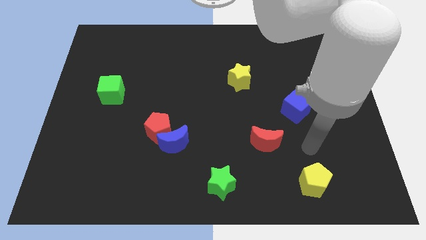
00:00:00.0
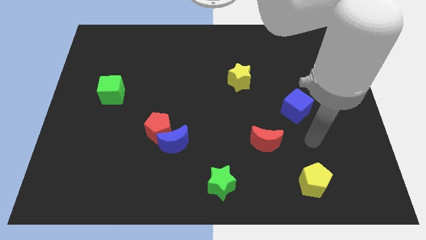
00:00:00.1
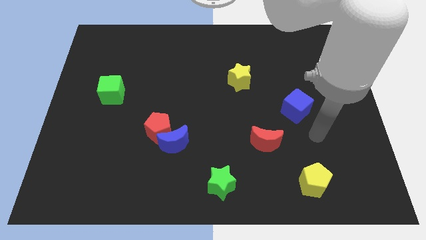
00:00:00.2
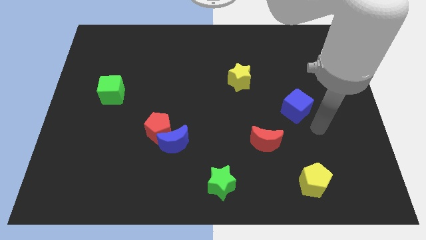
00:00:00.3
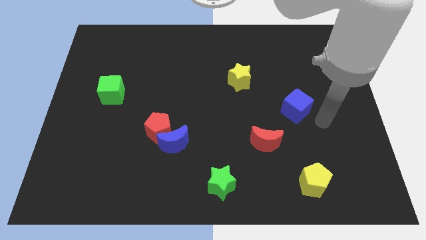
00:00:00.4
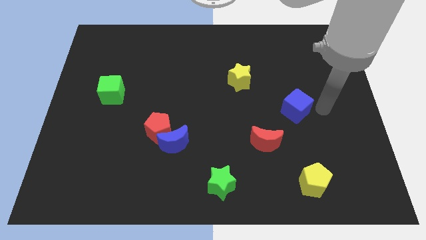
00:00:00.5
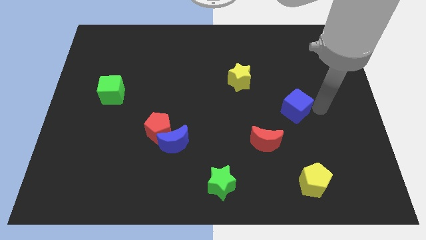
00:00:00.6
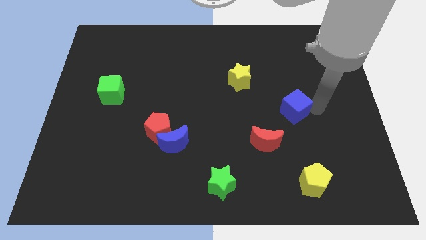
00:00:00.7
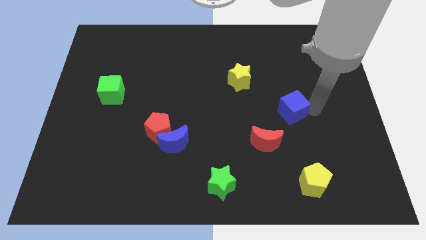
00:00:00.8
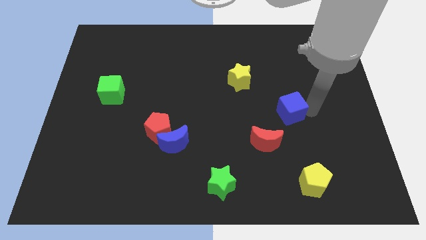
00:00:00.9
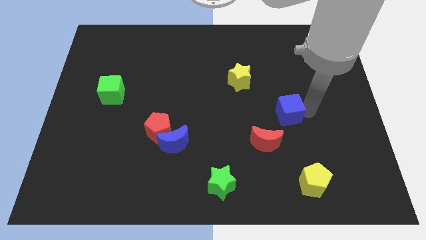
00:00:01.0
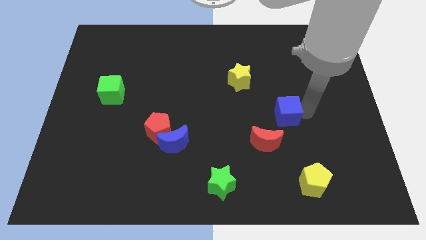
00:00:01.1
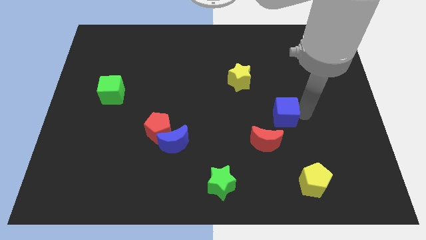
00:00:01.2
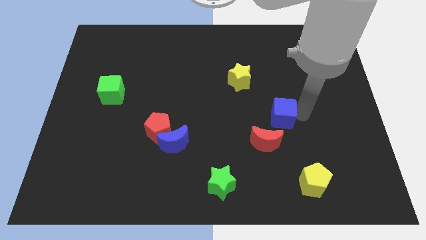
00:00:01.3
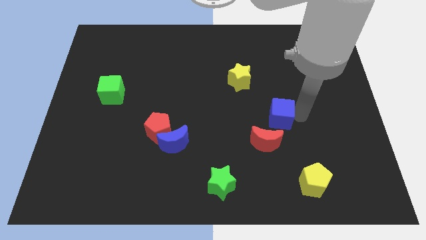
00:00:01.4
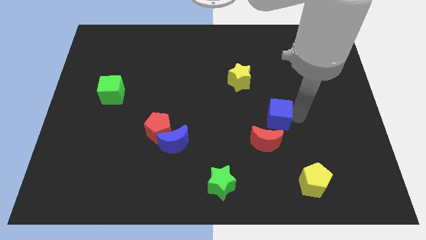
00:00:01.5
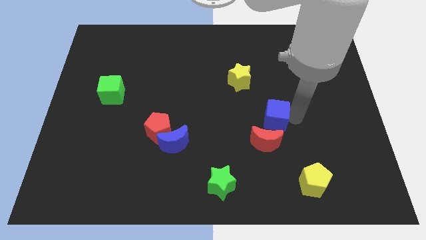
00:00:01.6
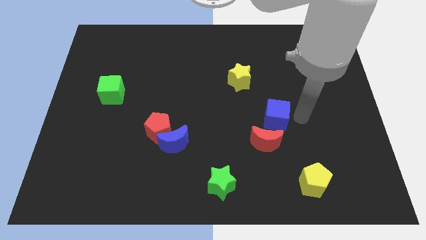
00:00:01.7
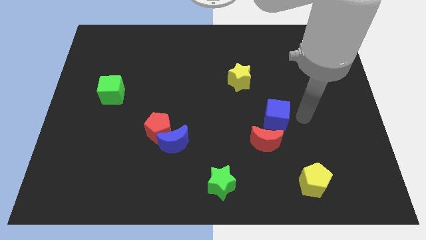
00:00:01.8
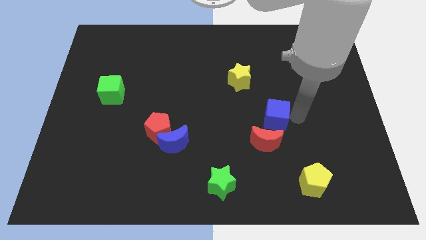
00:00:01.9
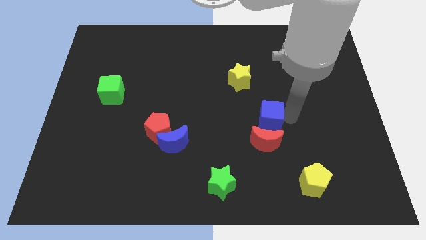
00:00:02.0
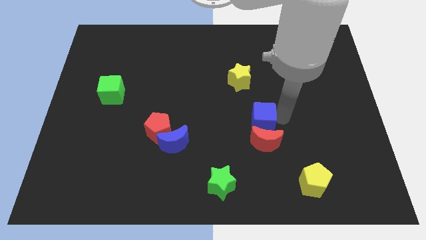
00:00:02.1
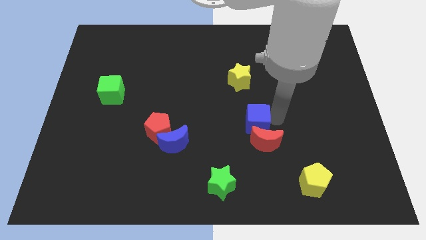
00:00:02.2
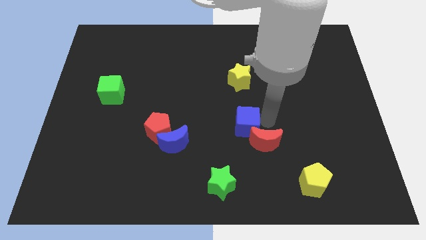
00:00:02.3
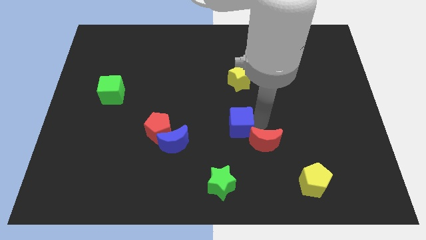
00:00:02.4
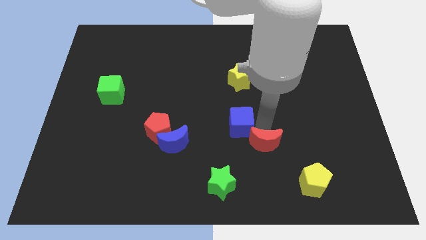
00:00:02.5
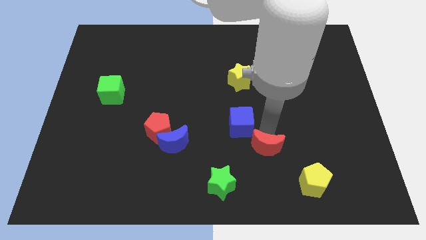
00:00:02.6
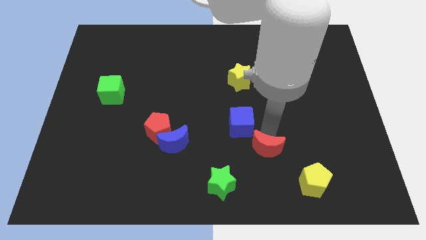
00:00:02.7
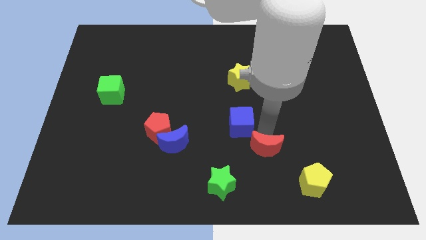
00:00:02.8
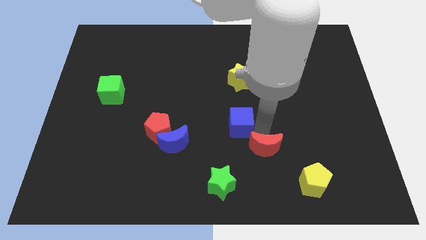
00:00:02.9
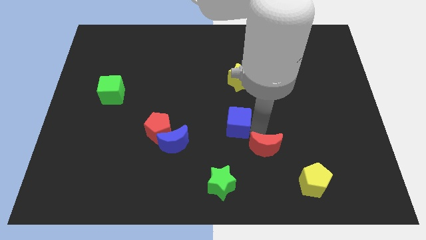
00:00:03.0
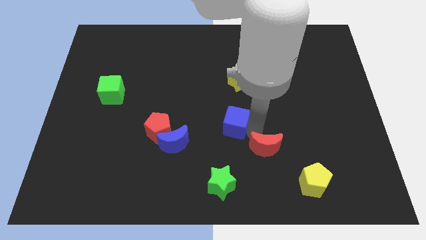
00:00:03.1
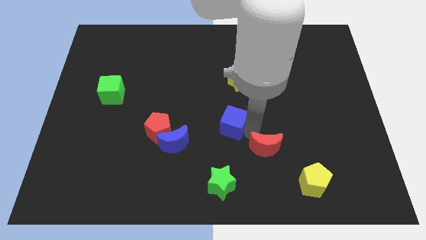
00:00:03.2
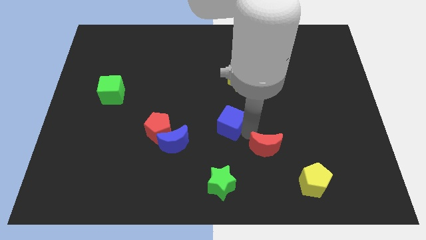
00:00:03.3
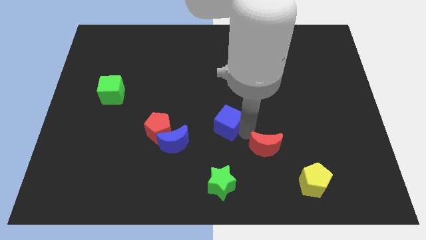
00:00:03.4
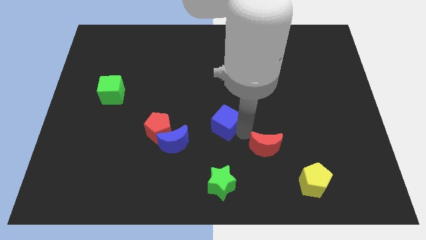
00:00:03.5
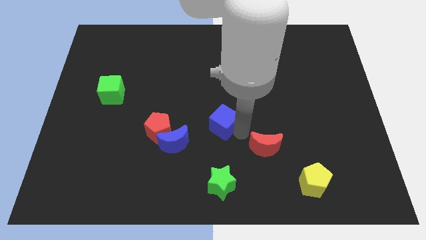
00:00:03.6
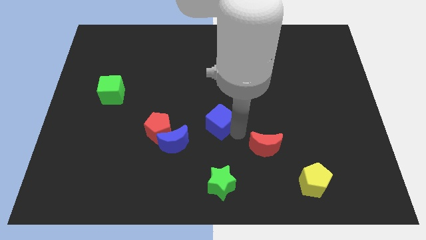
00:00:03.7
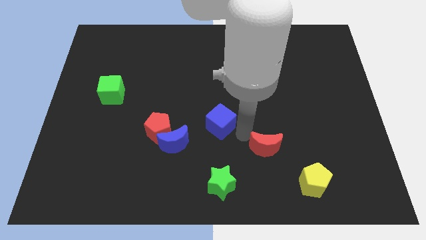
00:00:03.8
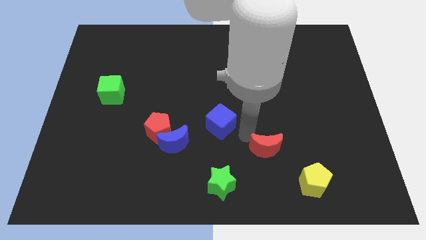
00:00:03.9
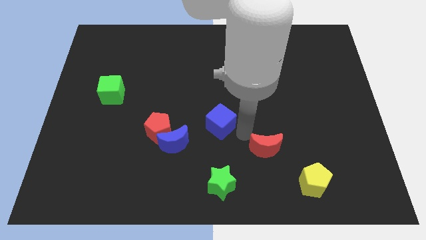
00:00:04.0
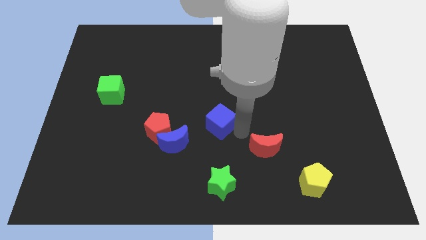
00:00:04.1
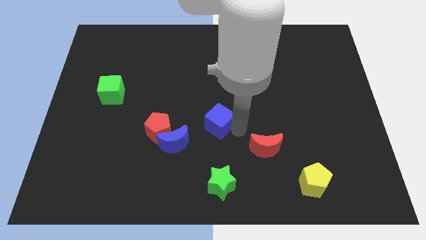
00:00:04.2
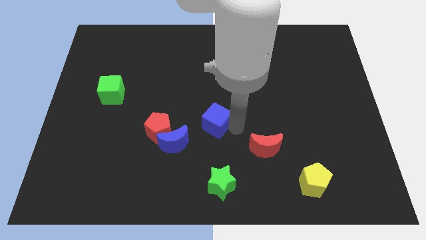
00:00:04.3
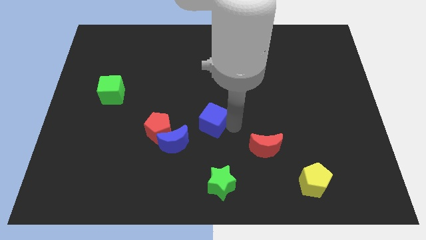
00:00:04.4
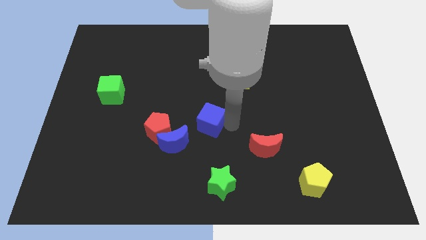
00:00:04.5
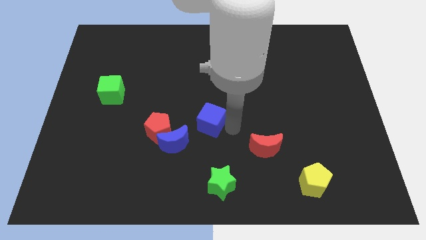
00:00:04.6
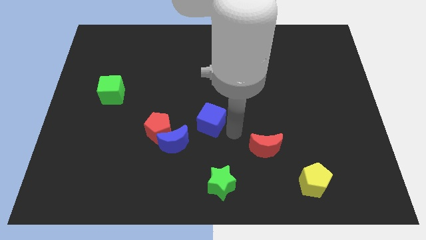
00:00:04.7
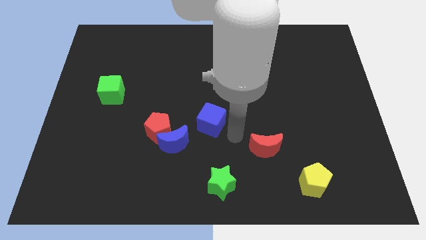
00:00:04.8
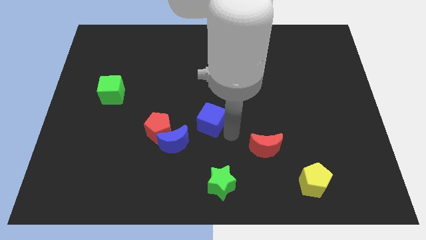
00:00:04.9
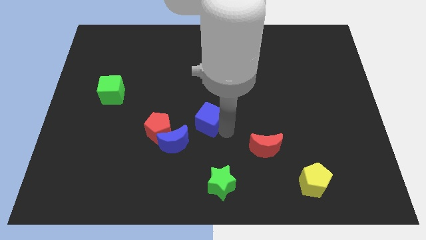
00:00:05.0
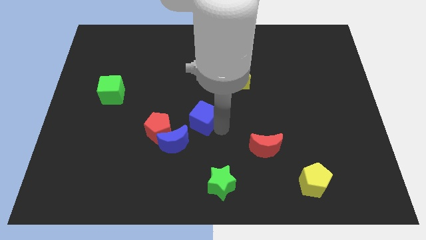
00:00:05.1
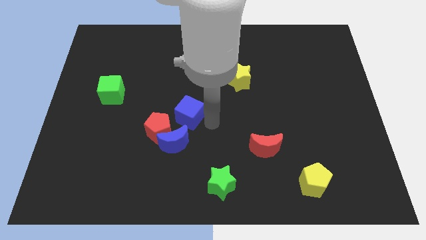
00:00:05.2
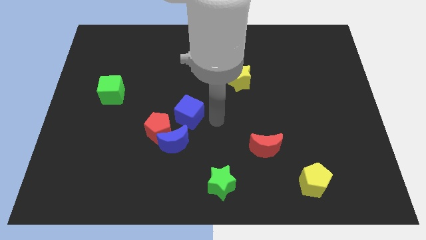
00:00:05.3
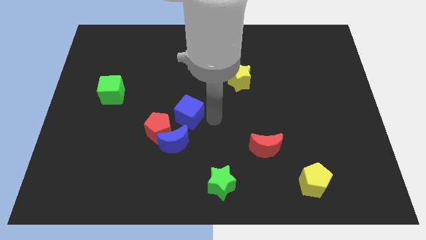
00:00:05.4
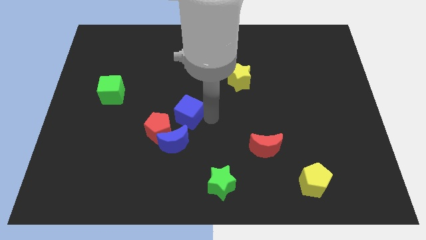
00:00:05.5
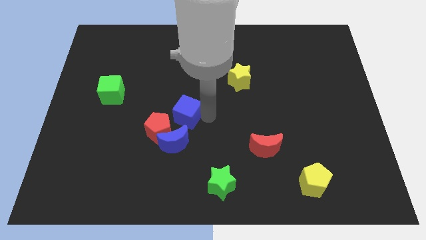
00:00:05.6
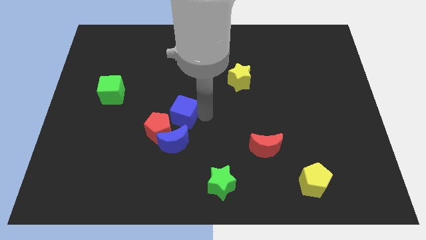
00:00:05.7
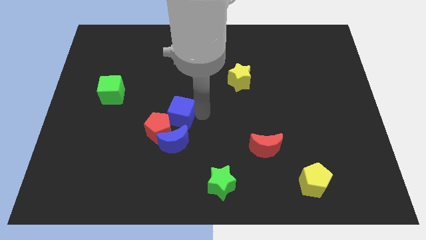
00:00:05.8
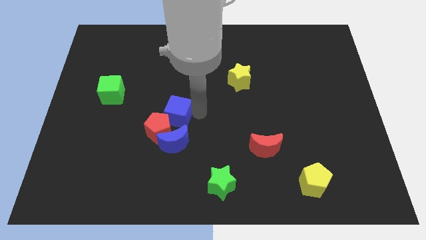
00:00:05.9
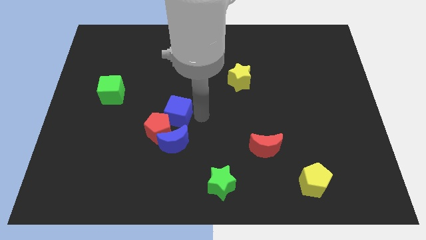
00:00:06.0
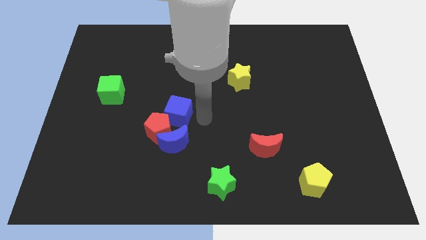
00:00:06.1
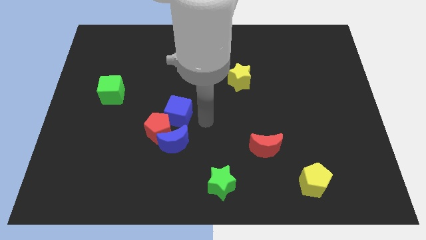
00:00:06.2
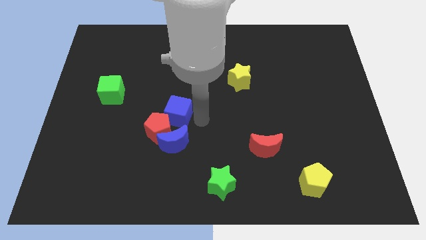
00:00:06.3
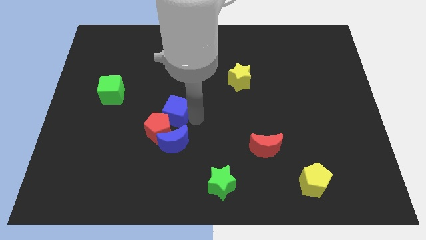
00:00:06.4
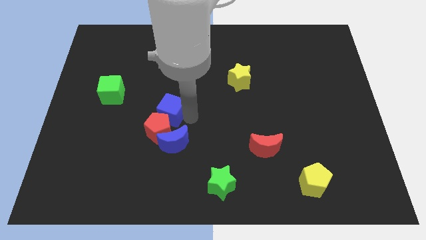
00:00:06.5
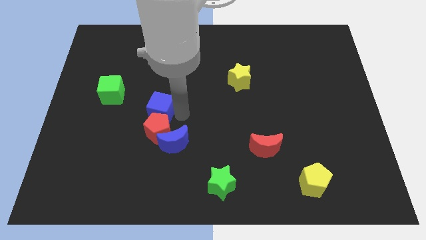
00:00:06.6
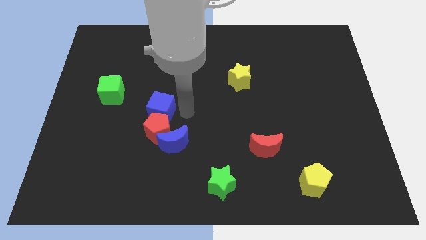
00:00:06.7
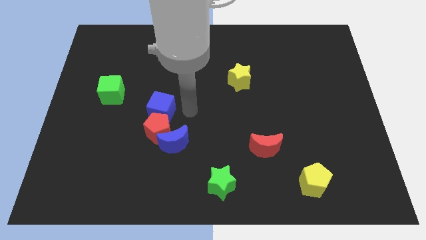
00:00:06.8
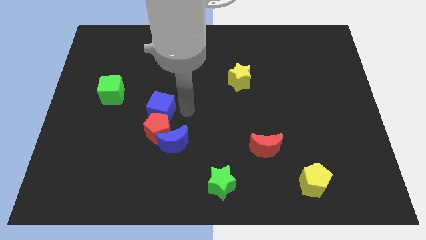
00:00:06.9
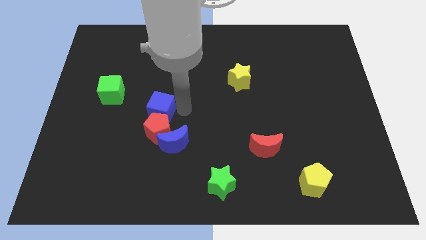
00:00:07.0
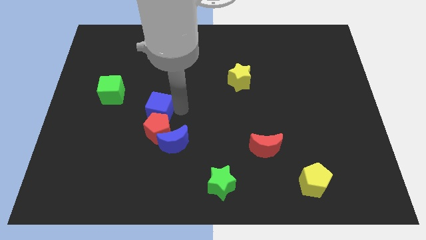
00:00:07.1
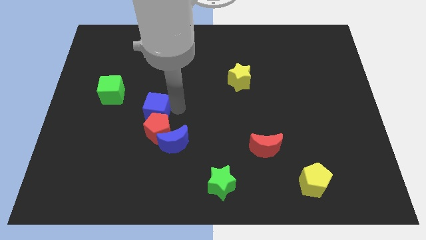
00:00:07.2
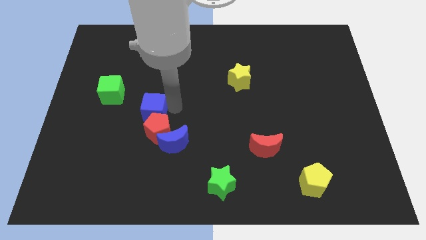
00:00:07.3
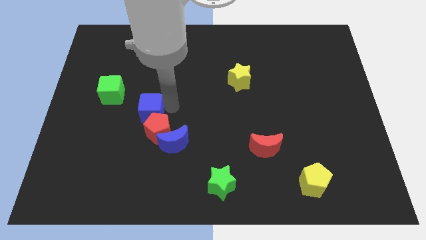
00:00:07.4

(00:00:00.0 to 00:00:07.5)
slide the blue cube to the bottom right of the green cube
